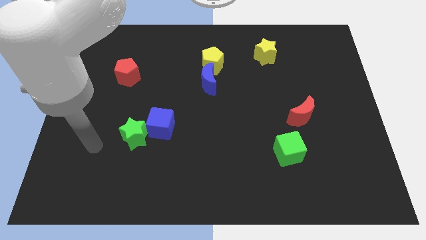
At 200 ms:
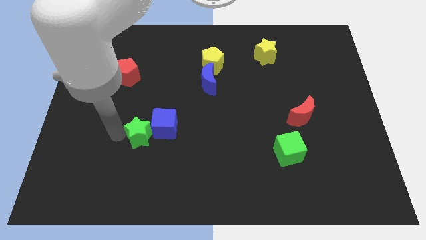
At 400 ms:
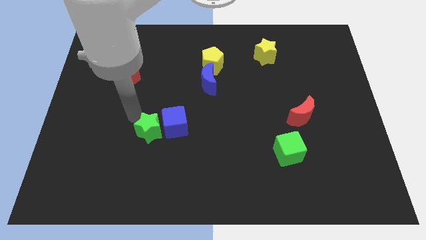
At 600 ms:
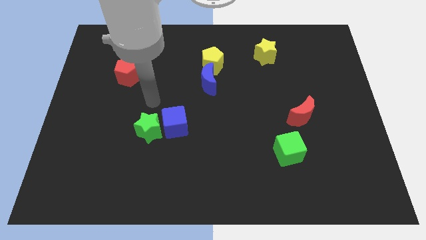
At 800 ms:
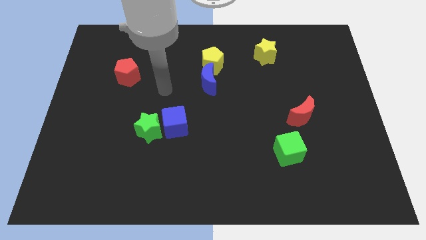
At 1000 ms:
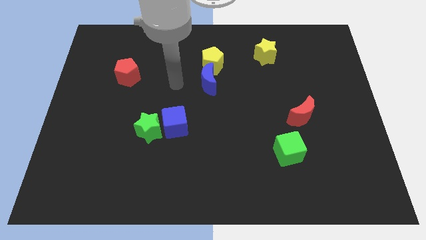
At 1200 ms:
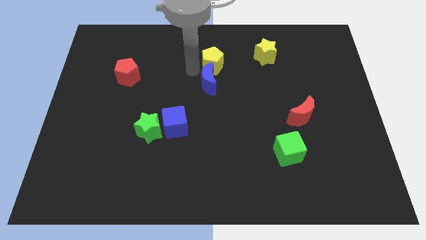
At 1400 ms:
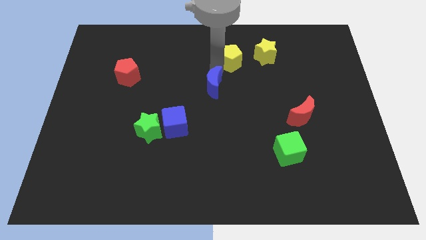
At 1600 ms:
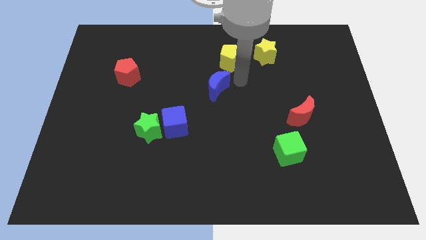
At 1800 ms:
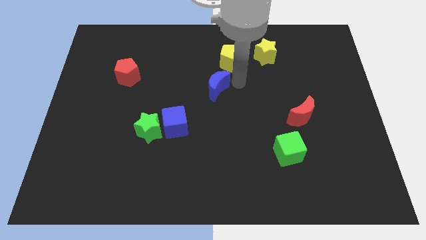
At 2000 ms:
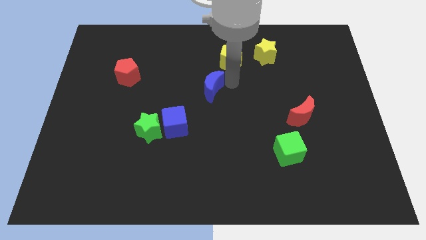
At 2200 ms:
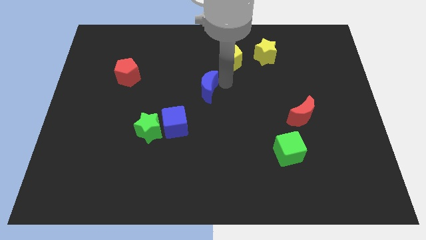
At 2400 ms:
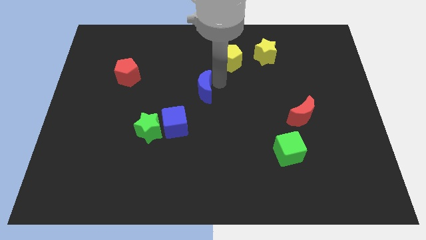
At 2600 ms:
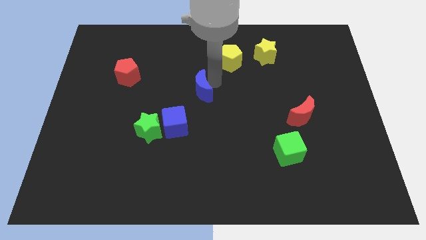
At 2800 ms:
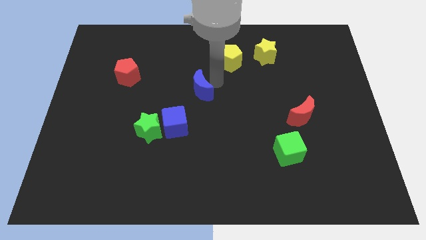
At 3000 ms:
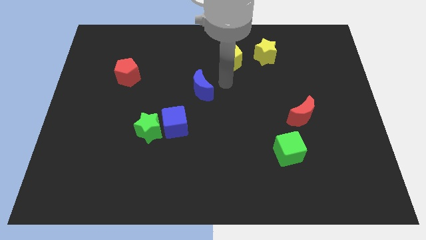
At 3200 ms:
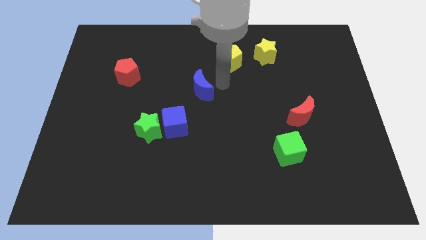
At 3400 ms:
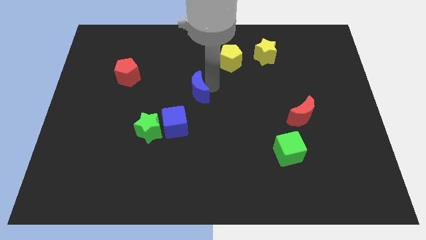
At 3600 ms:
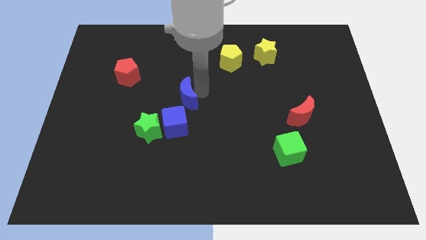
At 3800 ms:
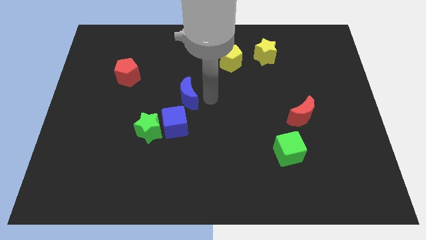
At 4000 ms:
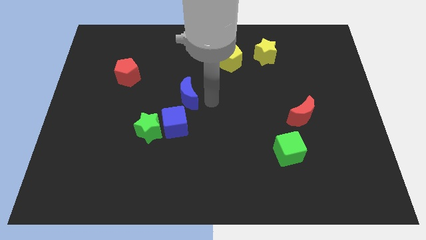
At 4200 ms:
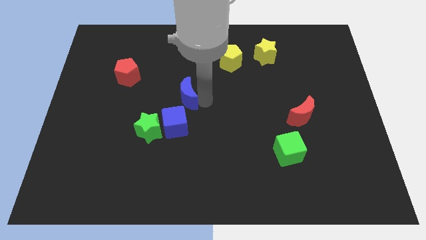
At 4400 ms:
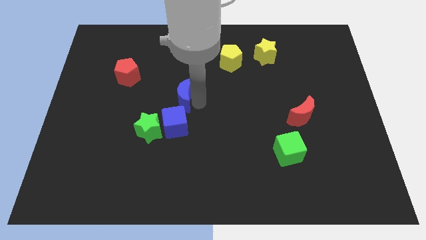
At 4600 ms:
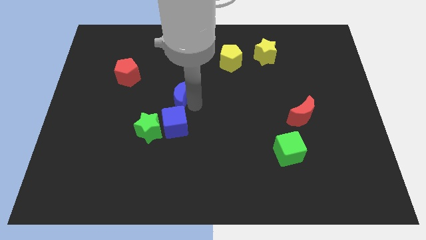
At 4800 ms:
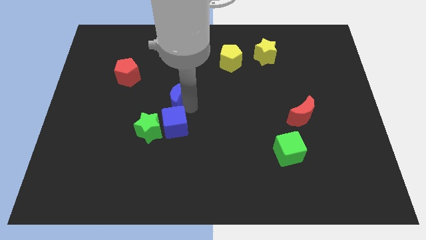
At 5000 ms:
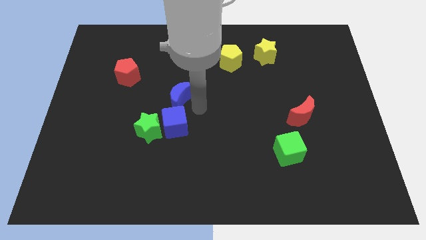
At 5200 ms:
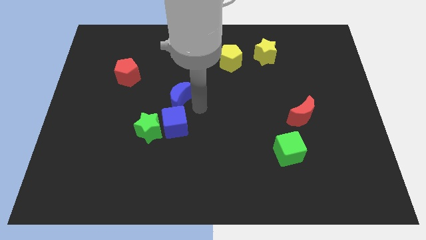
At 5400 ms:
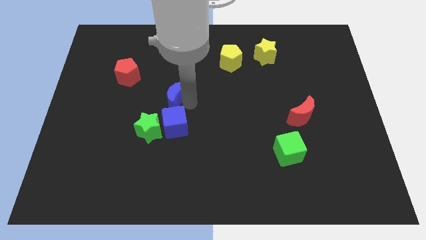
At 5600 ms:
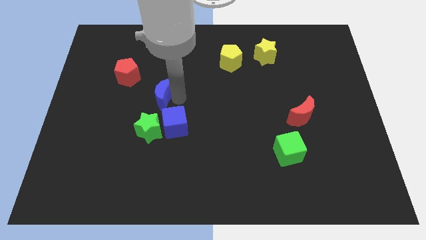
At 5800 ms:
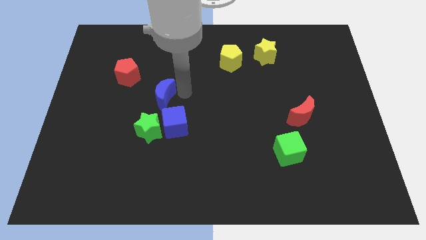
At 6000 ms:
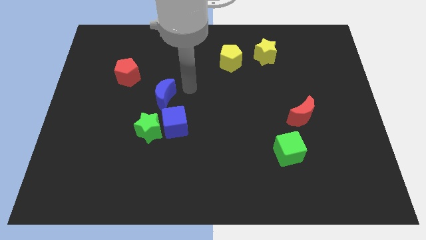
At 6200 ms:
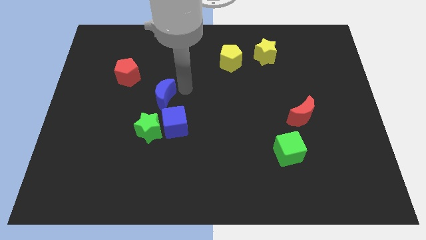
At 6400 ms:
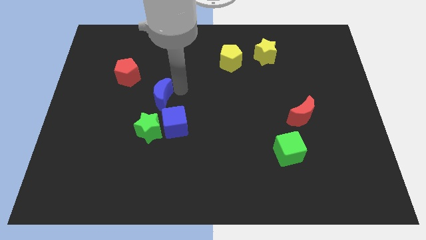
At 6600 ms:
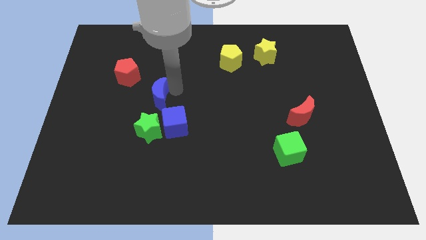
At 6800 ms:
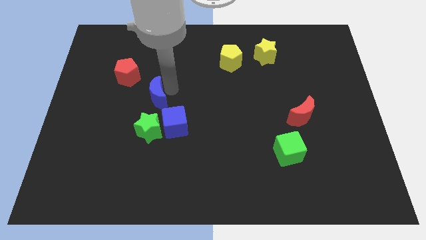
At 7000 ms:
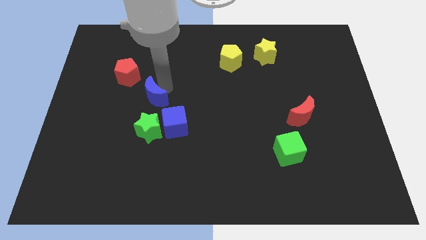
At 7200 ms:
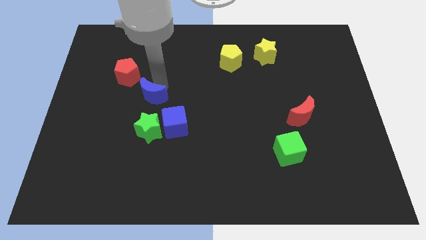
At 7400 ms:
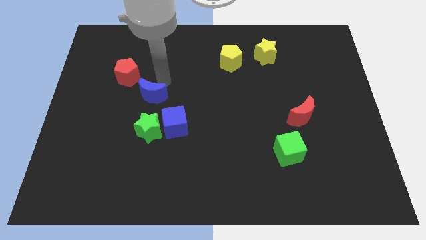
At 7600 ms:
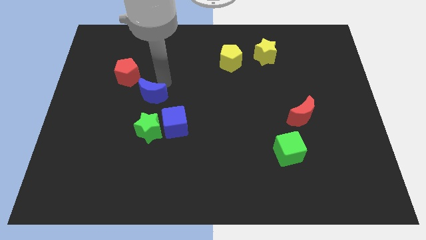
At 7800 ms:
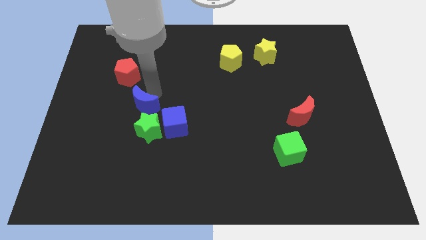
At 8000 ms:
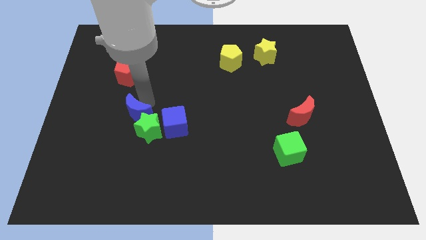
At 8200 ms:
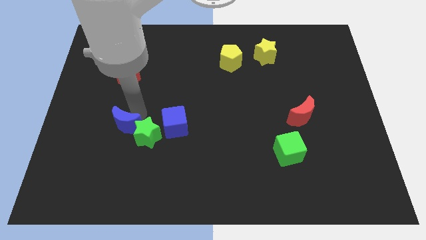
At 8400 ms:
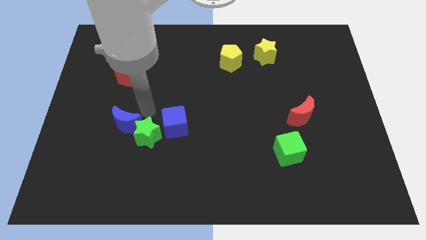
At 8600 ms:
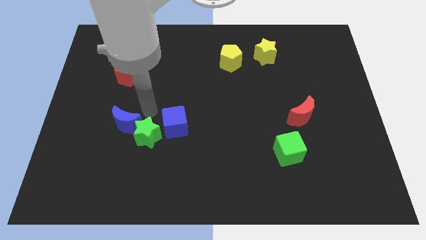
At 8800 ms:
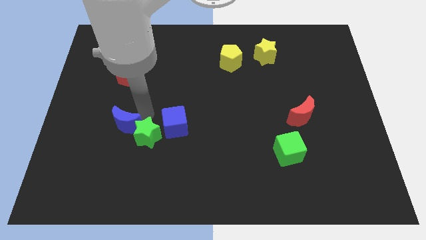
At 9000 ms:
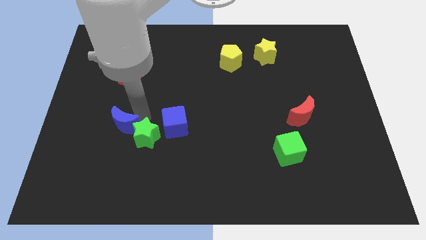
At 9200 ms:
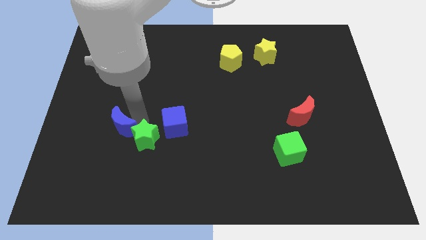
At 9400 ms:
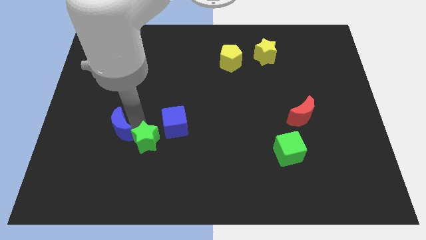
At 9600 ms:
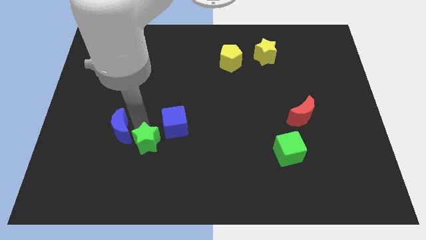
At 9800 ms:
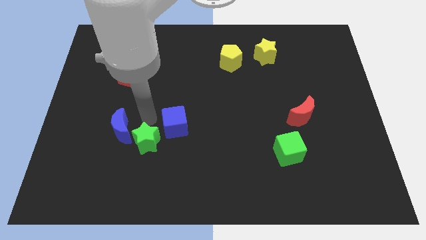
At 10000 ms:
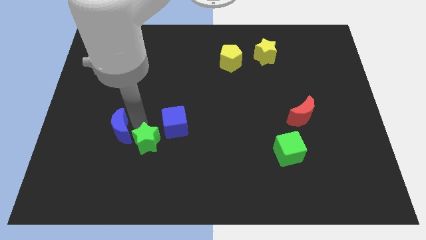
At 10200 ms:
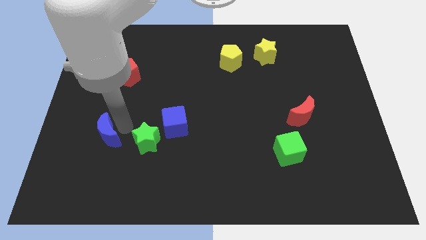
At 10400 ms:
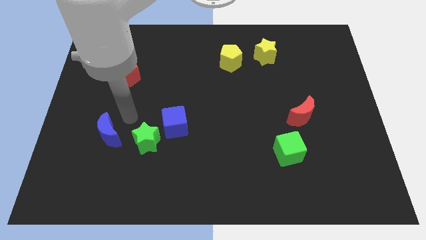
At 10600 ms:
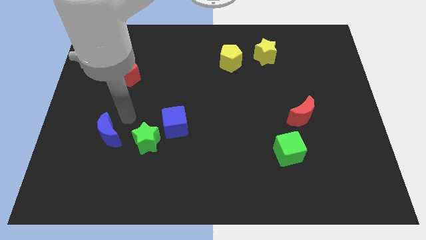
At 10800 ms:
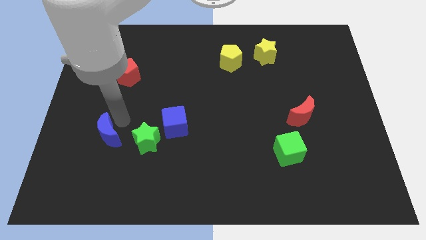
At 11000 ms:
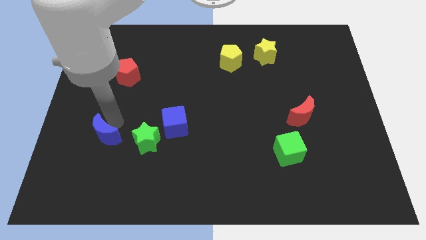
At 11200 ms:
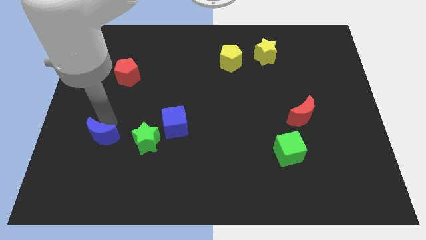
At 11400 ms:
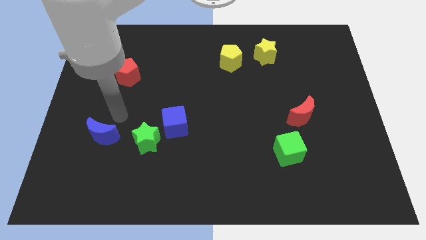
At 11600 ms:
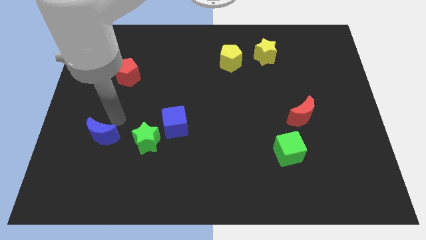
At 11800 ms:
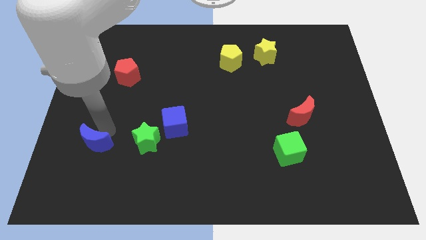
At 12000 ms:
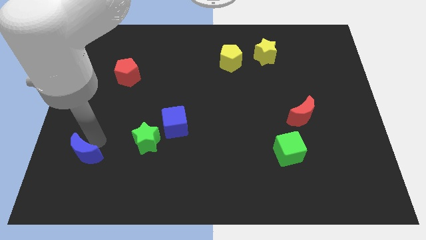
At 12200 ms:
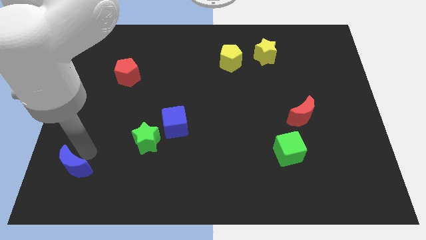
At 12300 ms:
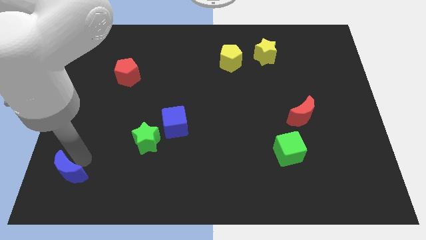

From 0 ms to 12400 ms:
put the blue moon to the bottom left corner
